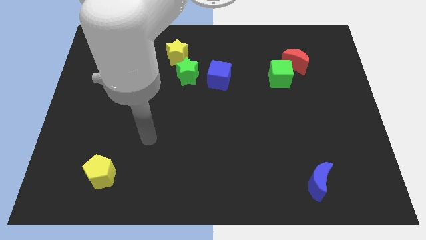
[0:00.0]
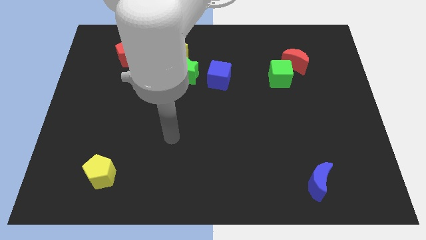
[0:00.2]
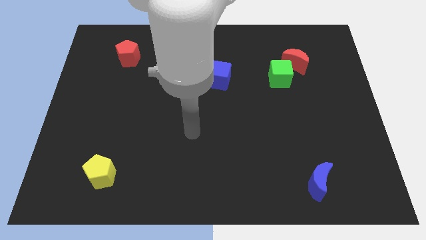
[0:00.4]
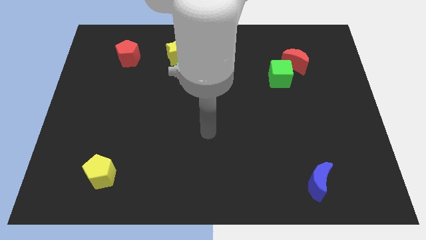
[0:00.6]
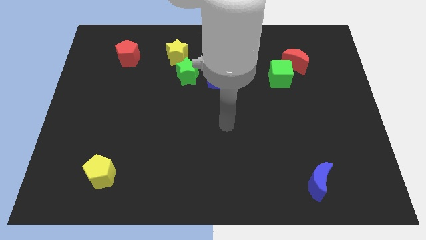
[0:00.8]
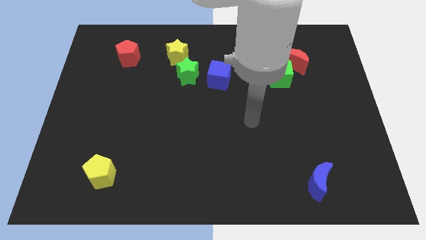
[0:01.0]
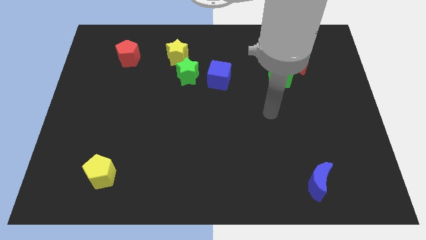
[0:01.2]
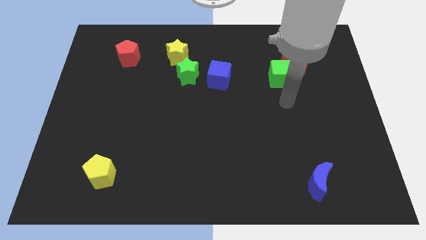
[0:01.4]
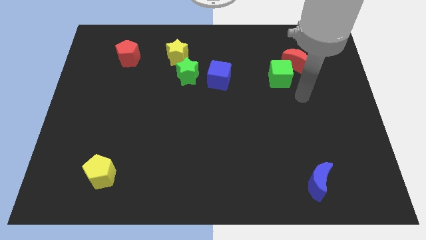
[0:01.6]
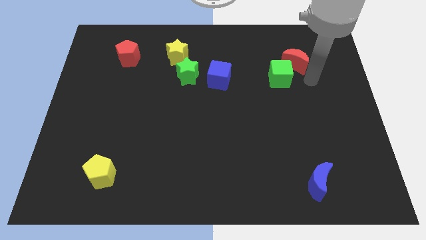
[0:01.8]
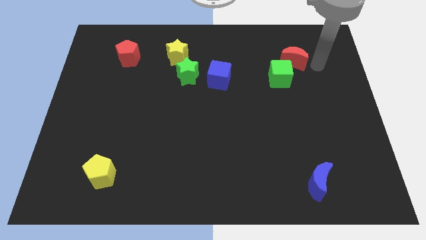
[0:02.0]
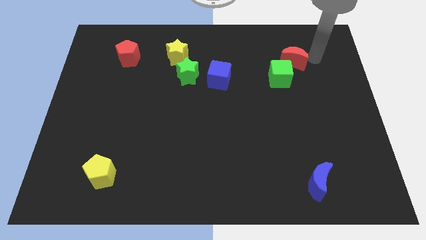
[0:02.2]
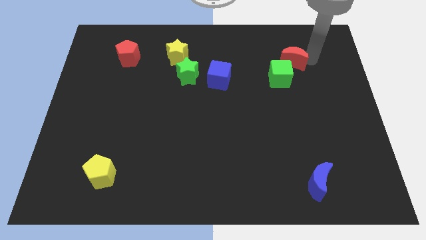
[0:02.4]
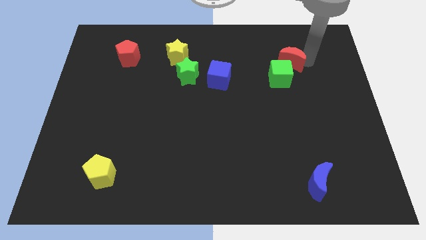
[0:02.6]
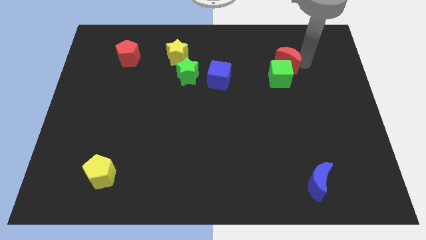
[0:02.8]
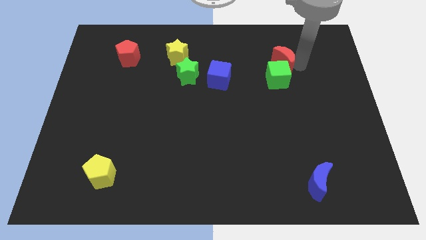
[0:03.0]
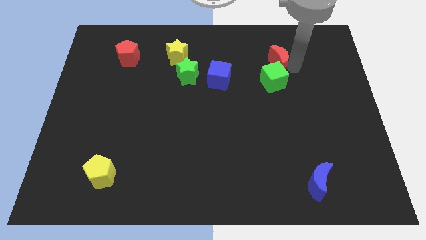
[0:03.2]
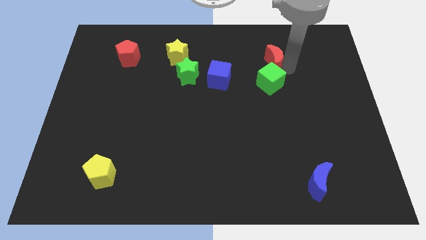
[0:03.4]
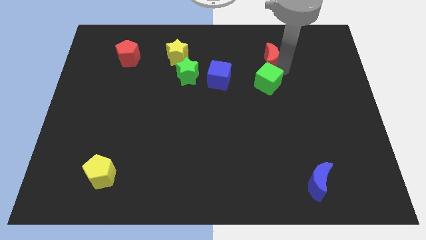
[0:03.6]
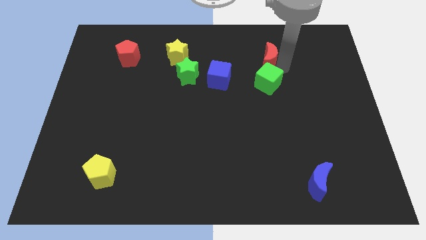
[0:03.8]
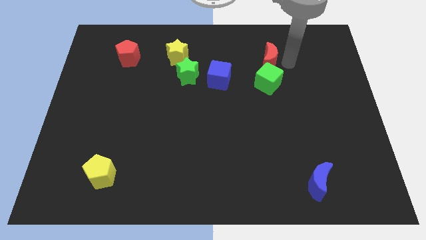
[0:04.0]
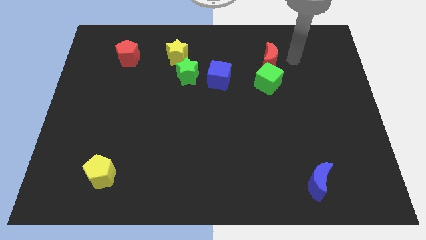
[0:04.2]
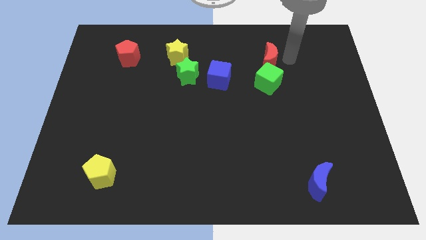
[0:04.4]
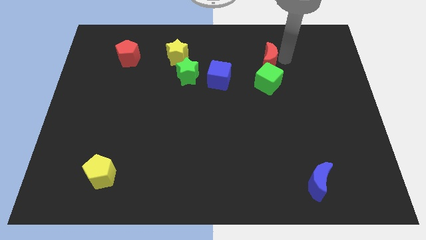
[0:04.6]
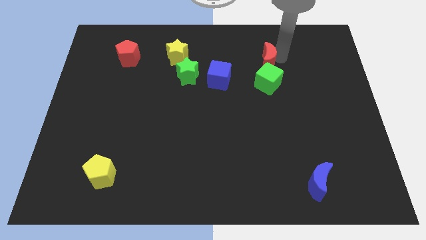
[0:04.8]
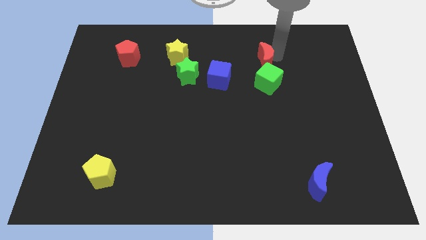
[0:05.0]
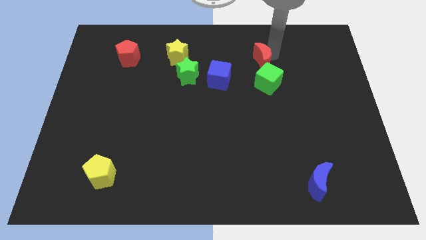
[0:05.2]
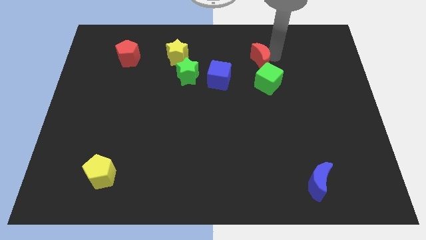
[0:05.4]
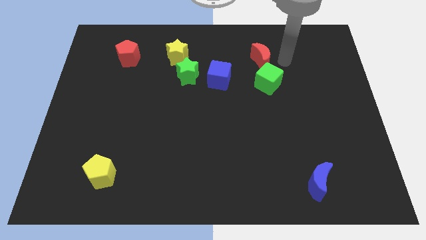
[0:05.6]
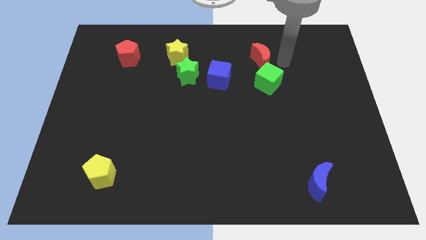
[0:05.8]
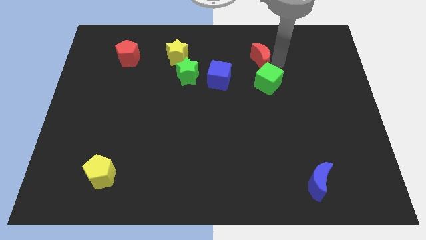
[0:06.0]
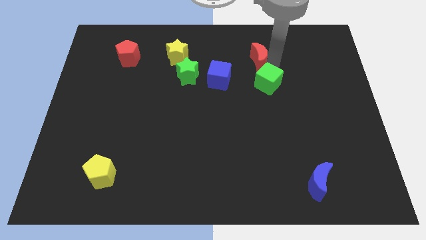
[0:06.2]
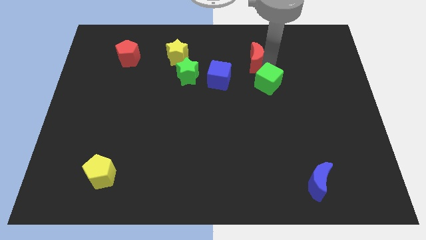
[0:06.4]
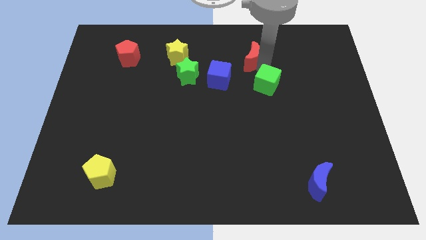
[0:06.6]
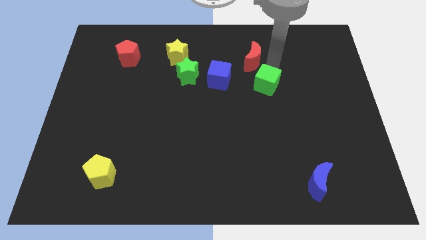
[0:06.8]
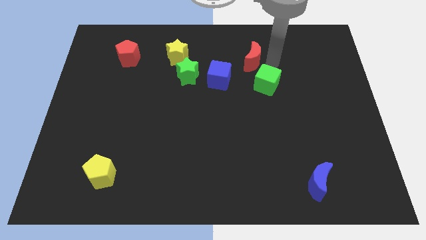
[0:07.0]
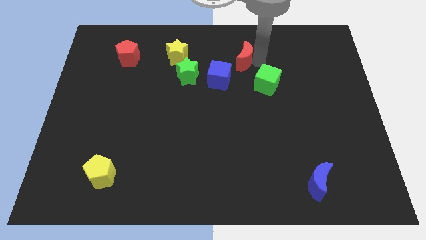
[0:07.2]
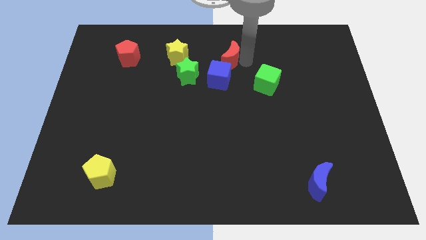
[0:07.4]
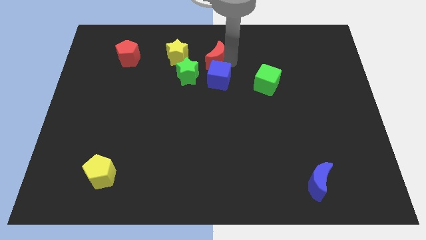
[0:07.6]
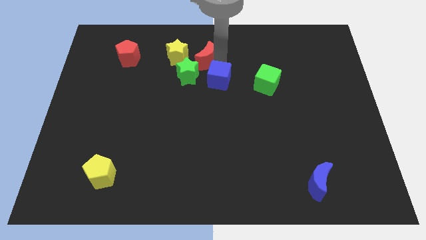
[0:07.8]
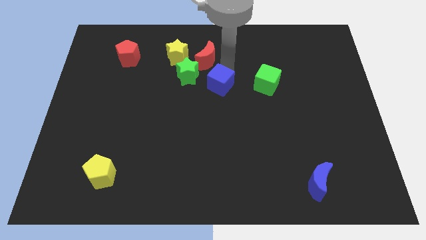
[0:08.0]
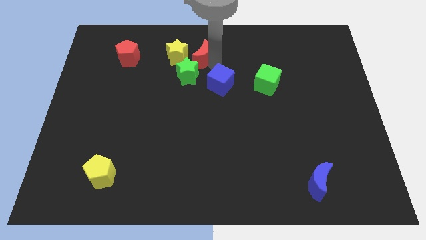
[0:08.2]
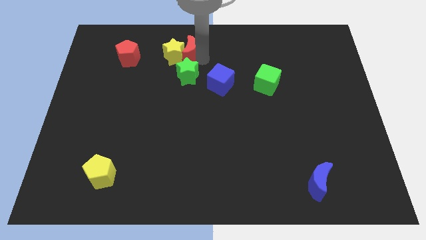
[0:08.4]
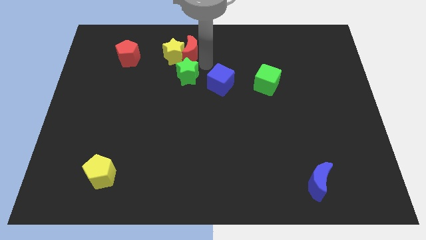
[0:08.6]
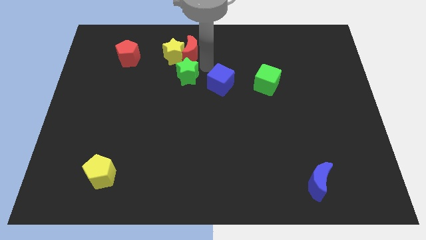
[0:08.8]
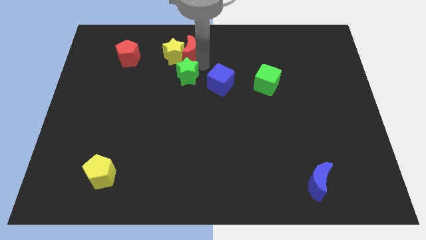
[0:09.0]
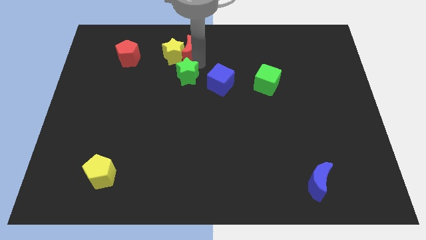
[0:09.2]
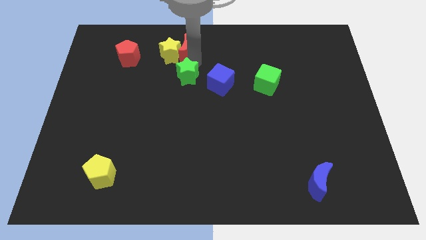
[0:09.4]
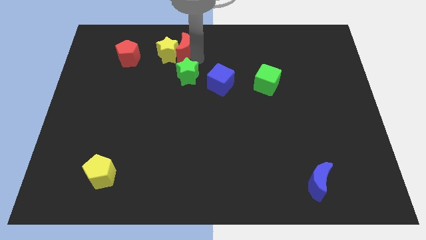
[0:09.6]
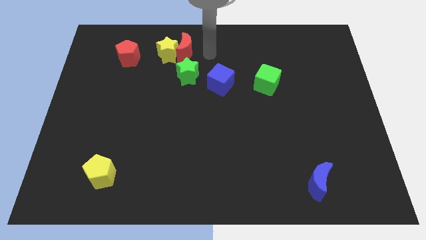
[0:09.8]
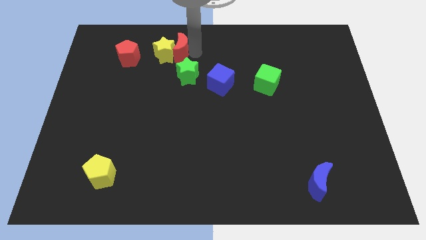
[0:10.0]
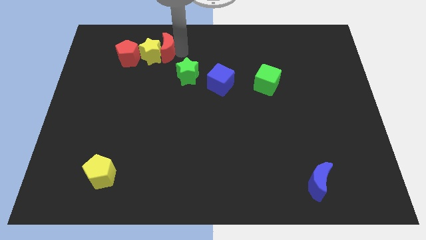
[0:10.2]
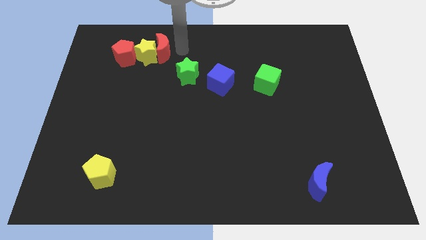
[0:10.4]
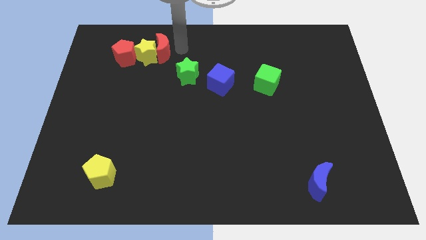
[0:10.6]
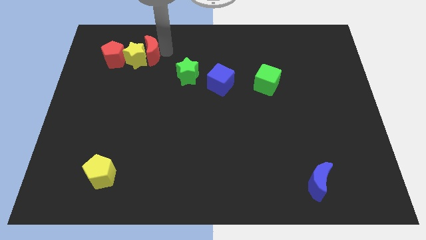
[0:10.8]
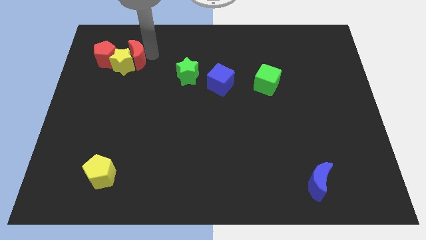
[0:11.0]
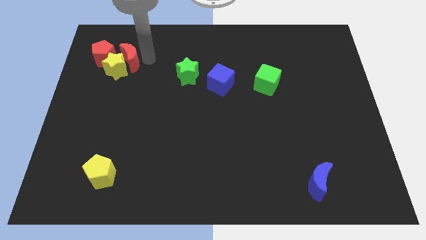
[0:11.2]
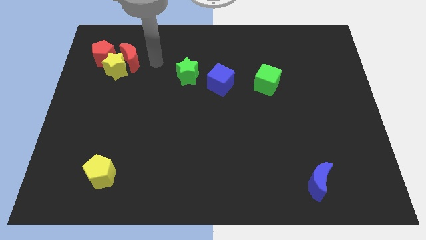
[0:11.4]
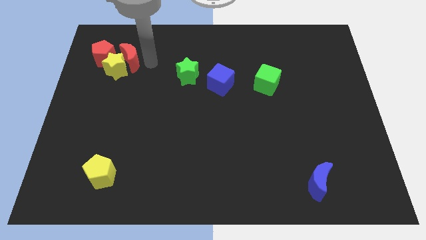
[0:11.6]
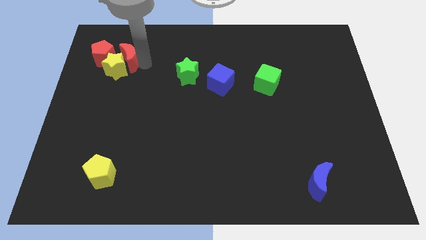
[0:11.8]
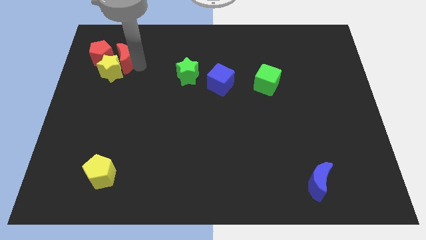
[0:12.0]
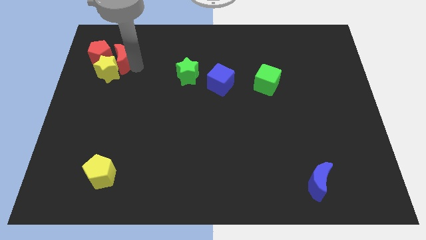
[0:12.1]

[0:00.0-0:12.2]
move the red moon next to the red pentagon

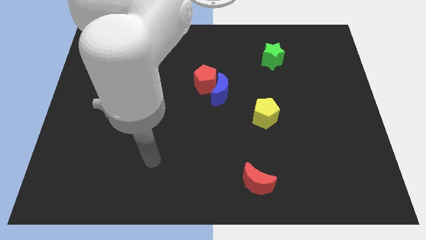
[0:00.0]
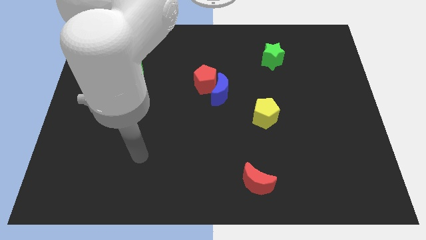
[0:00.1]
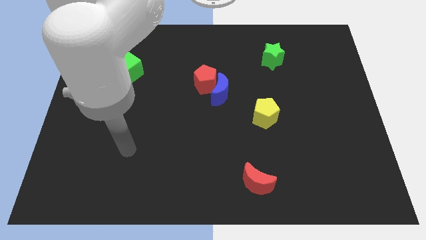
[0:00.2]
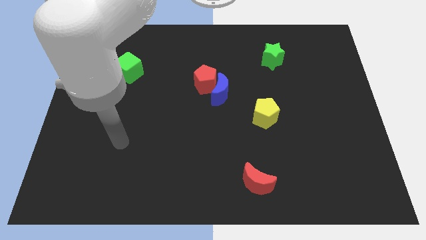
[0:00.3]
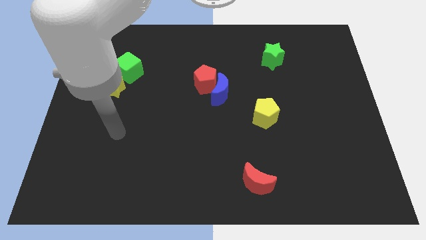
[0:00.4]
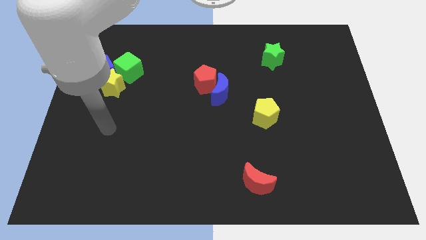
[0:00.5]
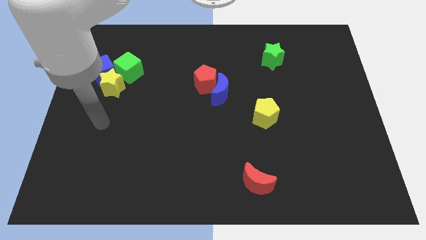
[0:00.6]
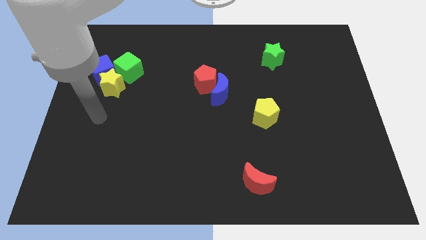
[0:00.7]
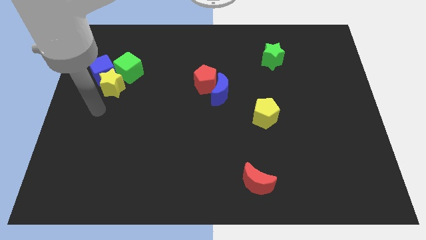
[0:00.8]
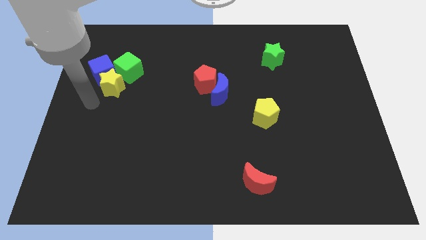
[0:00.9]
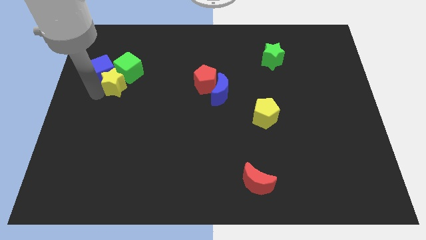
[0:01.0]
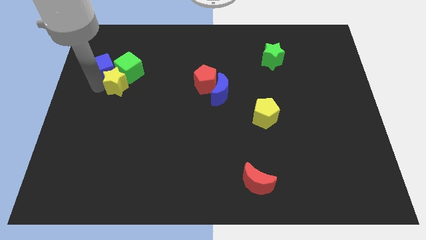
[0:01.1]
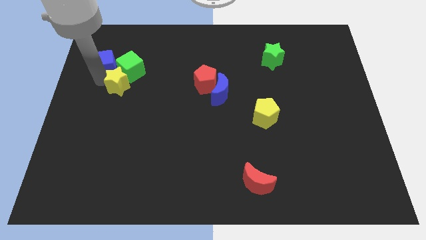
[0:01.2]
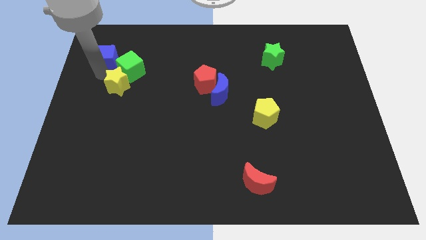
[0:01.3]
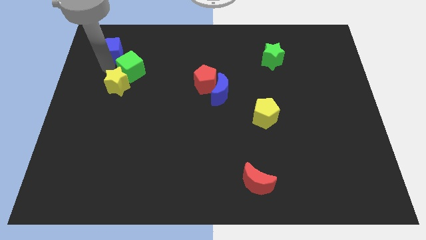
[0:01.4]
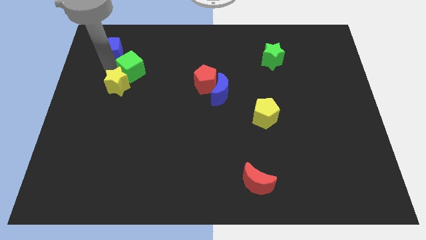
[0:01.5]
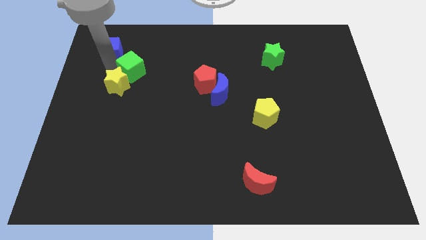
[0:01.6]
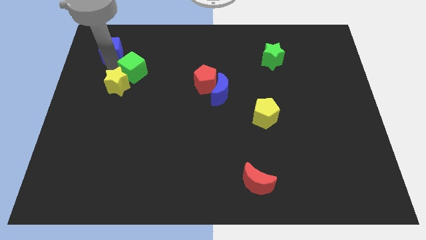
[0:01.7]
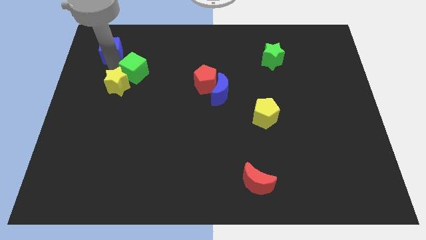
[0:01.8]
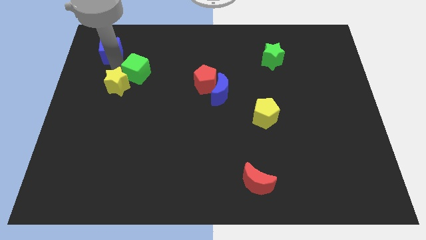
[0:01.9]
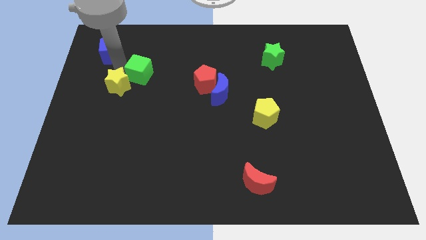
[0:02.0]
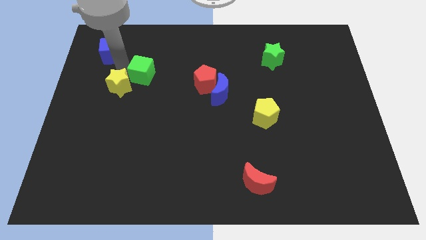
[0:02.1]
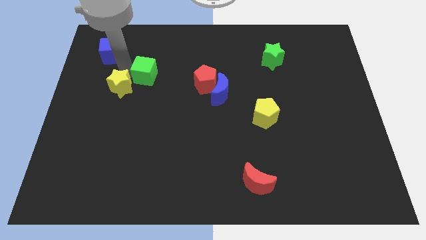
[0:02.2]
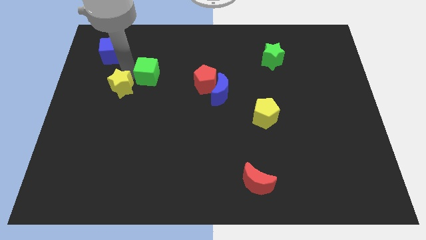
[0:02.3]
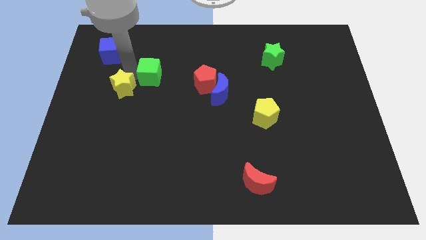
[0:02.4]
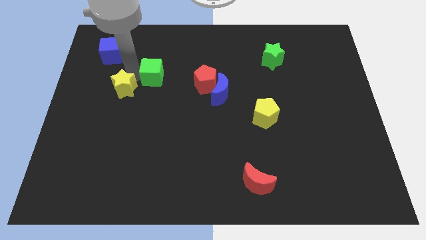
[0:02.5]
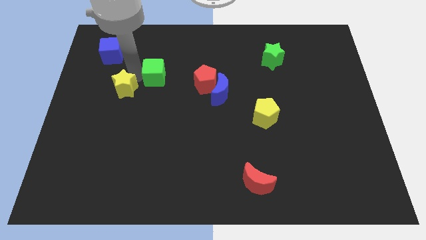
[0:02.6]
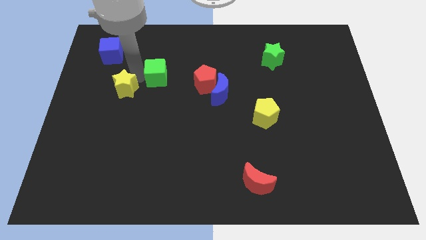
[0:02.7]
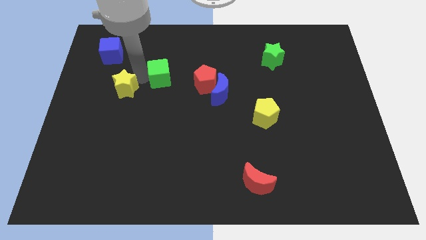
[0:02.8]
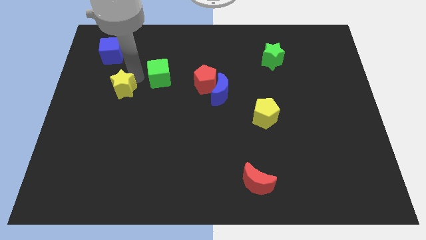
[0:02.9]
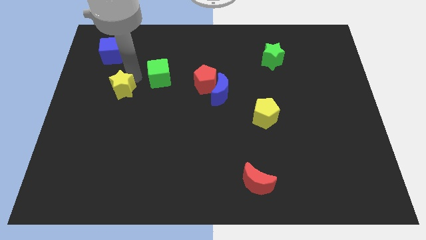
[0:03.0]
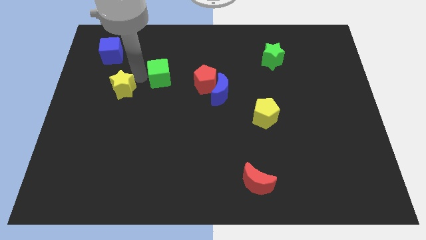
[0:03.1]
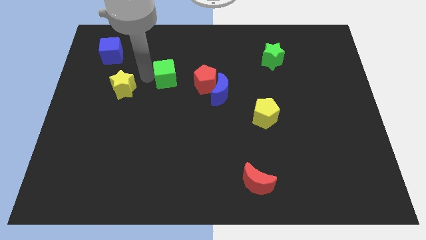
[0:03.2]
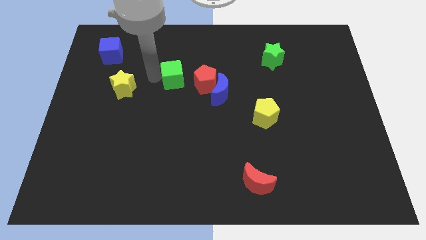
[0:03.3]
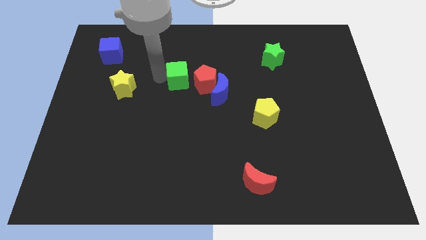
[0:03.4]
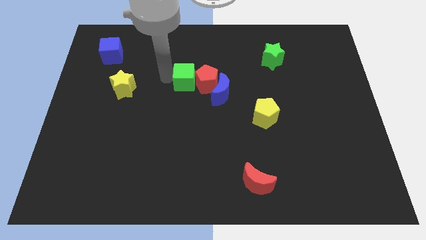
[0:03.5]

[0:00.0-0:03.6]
put the green cube to the red pentagon
